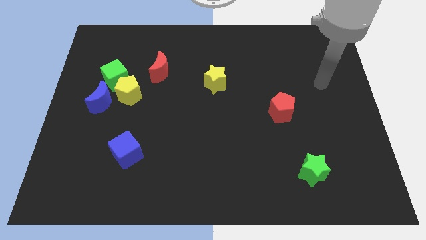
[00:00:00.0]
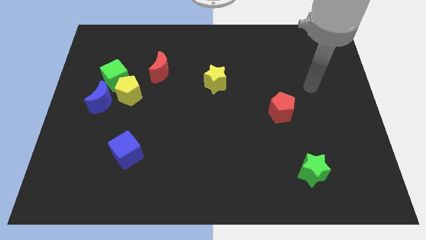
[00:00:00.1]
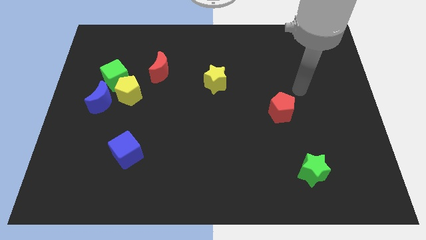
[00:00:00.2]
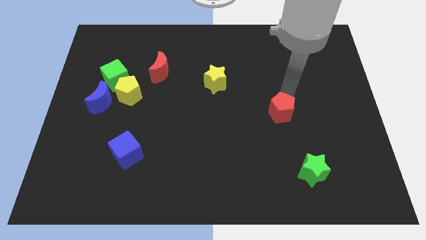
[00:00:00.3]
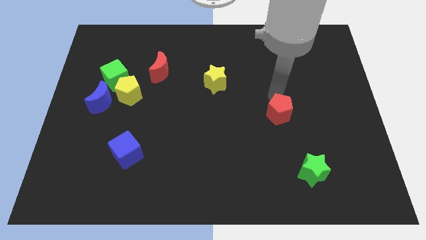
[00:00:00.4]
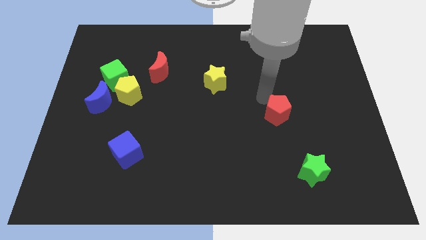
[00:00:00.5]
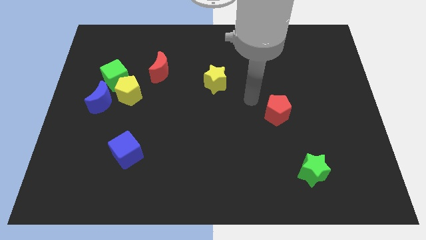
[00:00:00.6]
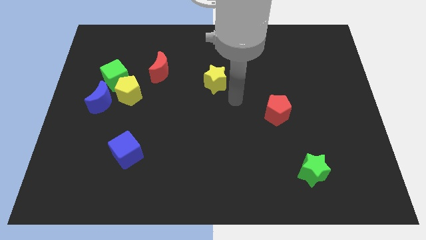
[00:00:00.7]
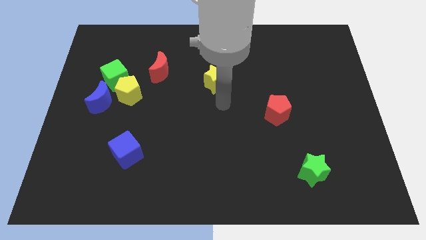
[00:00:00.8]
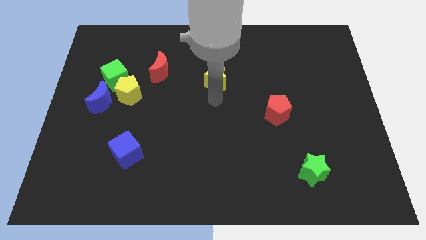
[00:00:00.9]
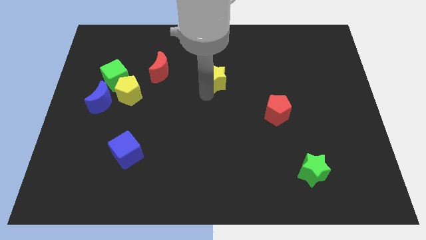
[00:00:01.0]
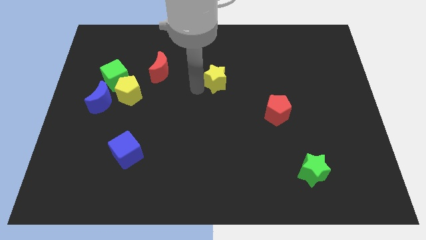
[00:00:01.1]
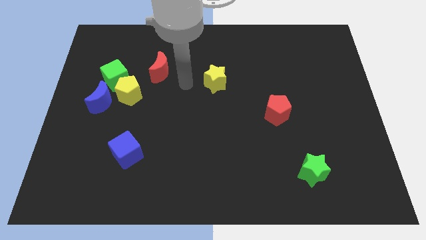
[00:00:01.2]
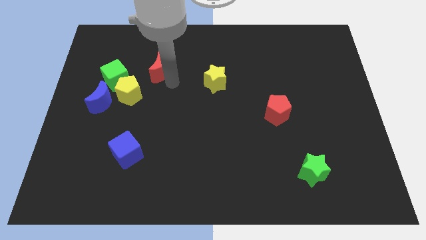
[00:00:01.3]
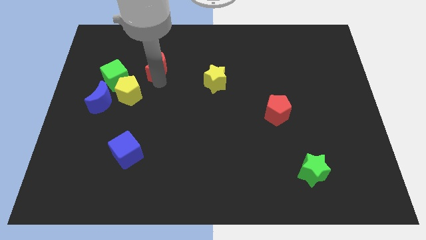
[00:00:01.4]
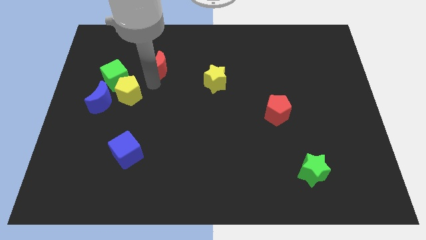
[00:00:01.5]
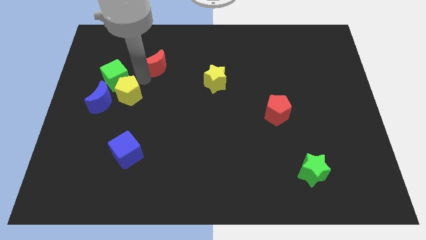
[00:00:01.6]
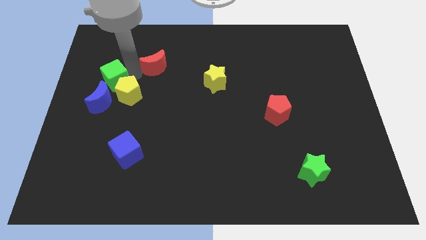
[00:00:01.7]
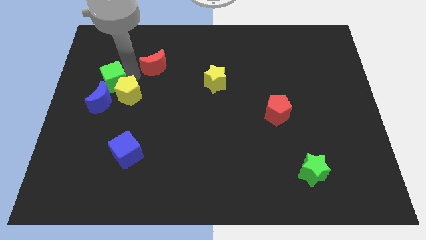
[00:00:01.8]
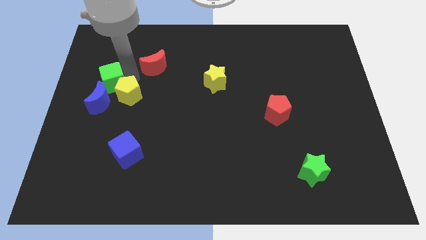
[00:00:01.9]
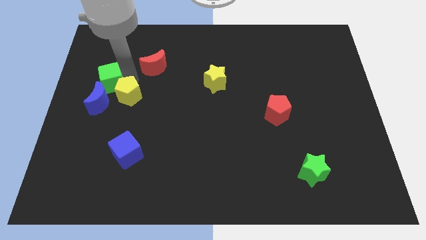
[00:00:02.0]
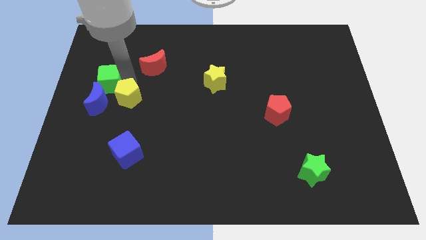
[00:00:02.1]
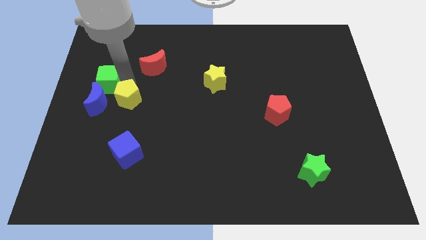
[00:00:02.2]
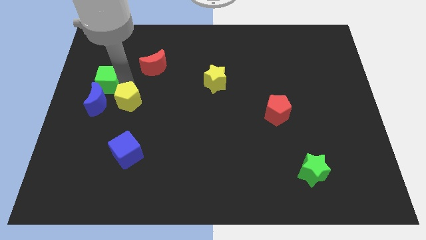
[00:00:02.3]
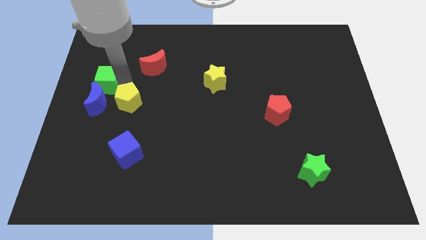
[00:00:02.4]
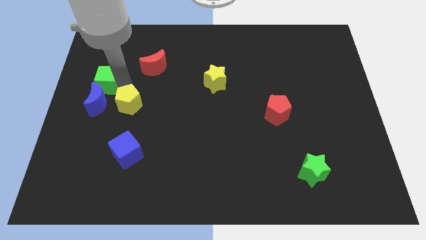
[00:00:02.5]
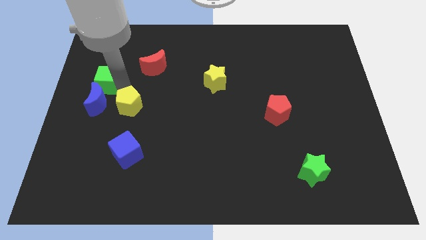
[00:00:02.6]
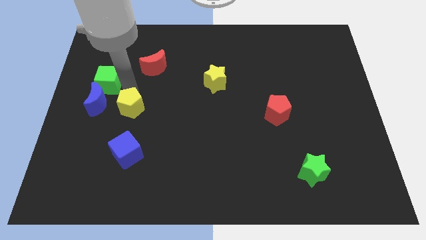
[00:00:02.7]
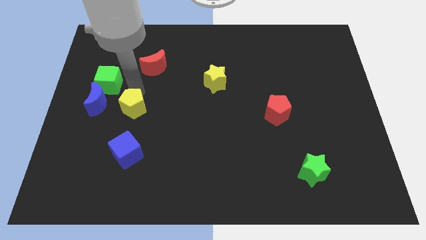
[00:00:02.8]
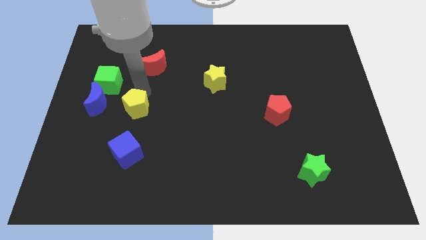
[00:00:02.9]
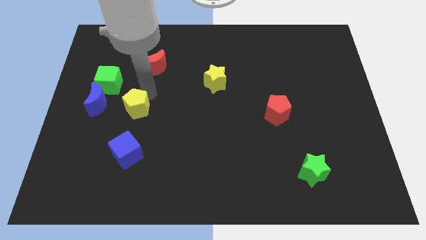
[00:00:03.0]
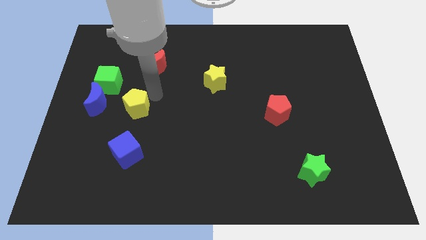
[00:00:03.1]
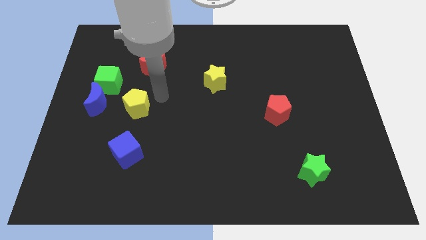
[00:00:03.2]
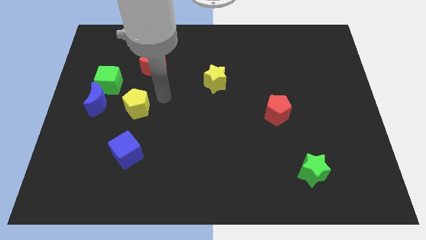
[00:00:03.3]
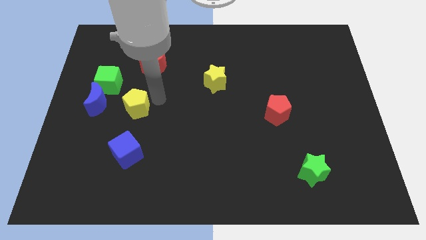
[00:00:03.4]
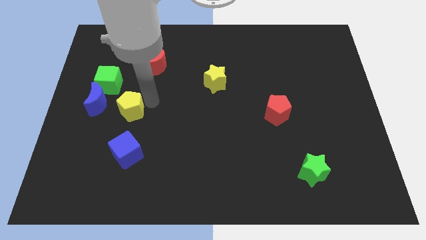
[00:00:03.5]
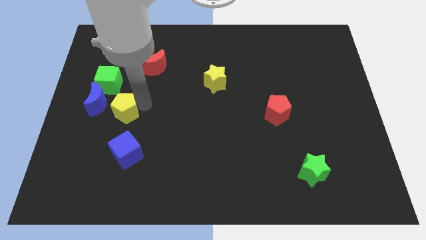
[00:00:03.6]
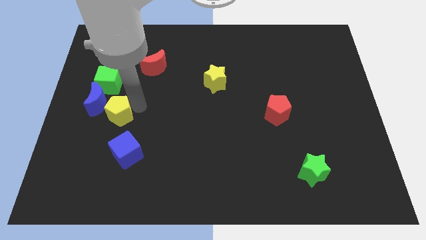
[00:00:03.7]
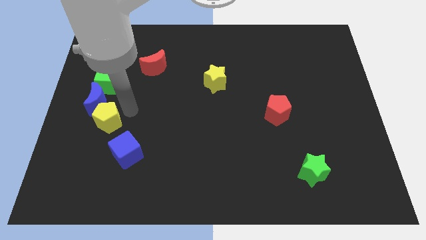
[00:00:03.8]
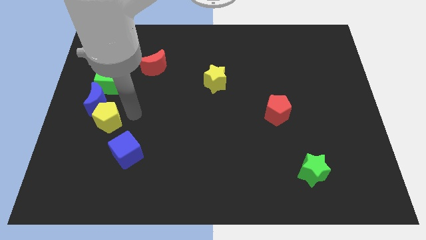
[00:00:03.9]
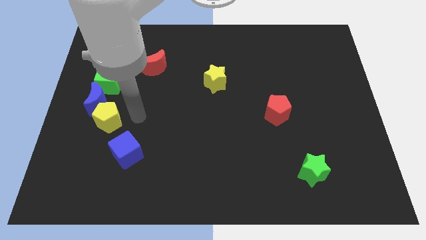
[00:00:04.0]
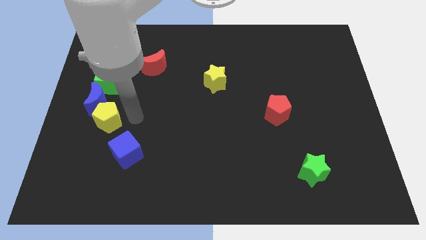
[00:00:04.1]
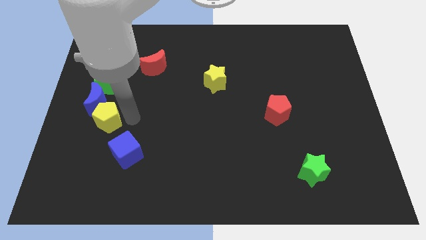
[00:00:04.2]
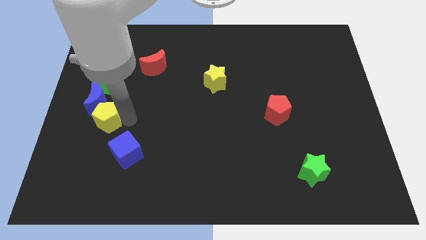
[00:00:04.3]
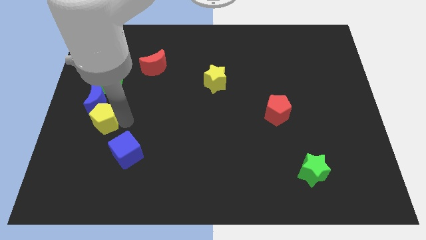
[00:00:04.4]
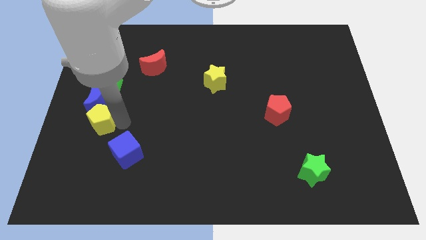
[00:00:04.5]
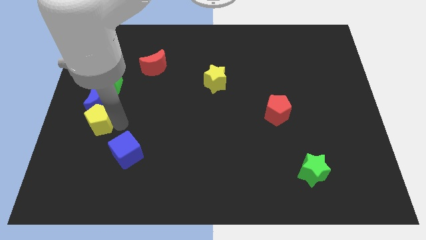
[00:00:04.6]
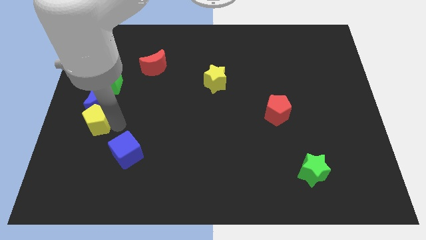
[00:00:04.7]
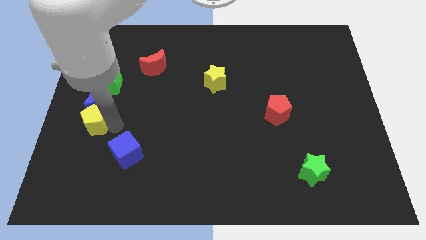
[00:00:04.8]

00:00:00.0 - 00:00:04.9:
move the yellow pentagon to the center left
